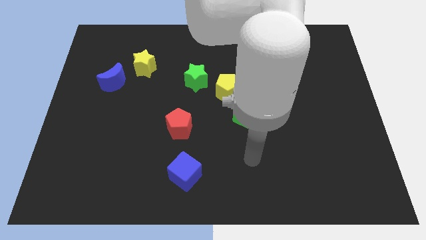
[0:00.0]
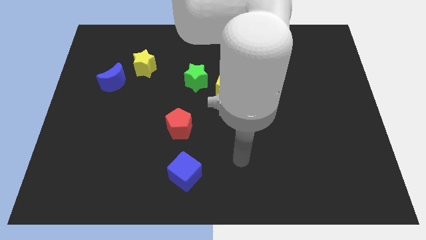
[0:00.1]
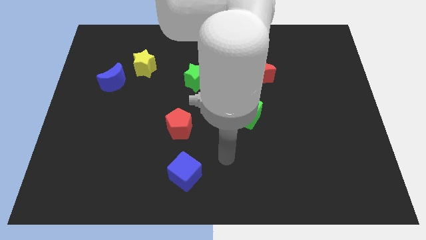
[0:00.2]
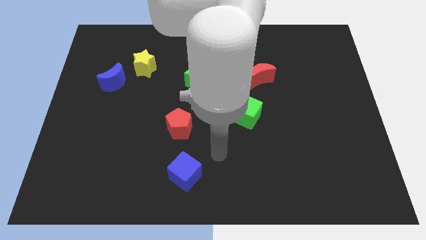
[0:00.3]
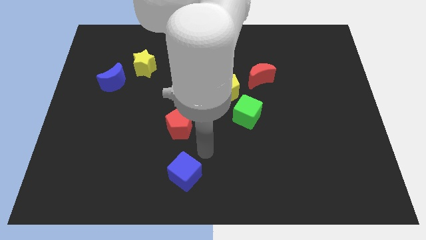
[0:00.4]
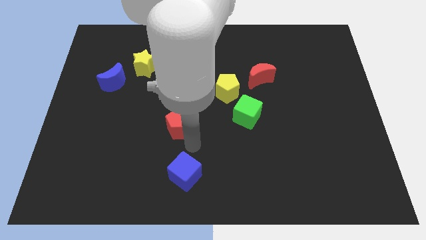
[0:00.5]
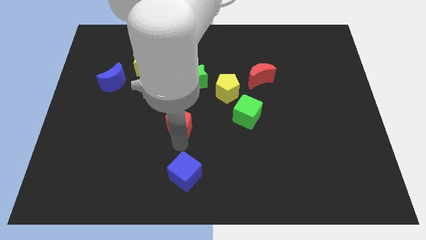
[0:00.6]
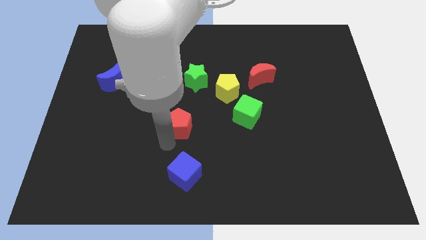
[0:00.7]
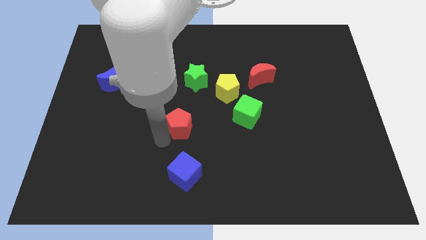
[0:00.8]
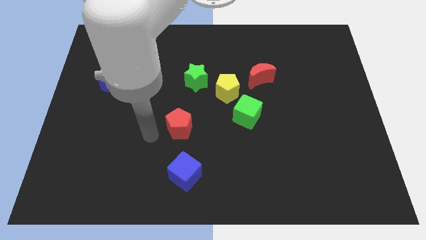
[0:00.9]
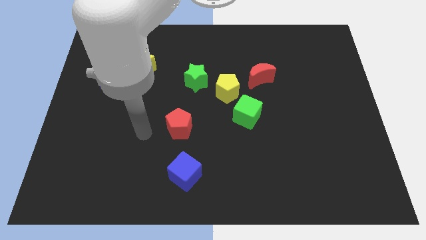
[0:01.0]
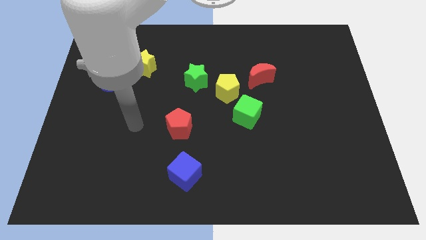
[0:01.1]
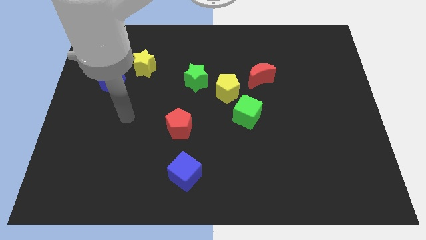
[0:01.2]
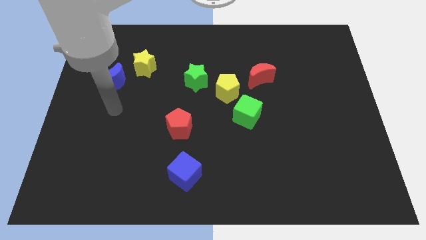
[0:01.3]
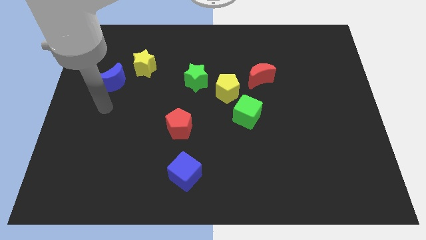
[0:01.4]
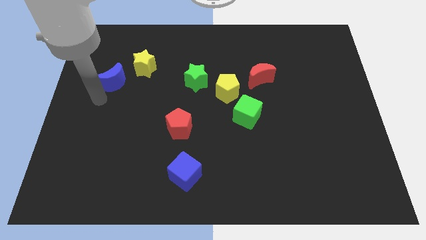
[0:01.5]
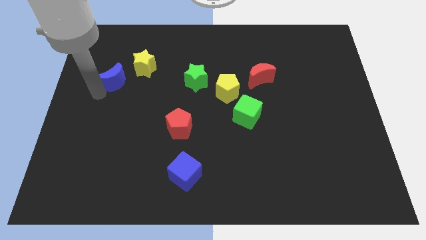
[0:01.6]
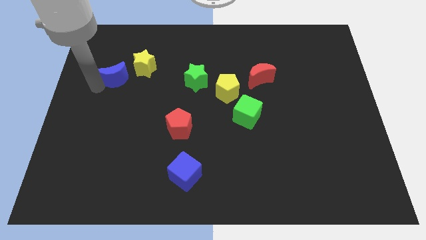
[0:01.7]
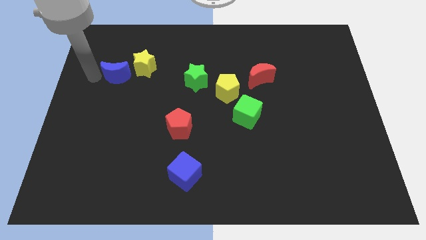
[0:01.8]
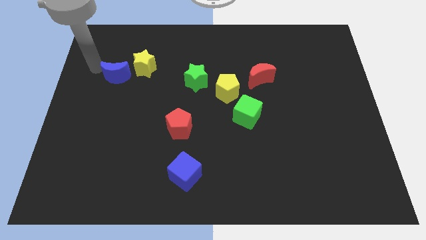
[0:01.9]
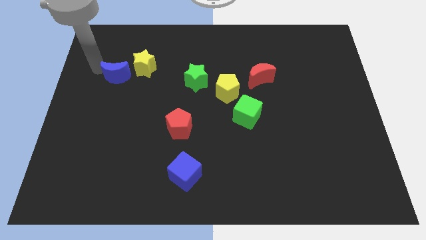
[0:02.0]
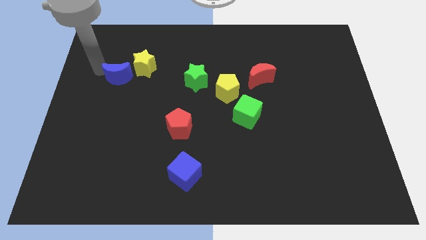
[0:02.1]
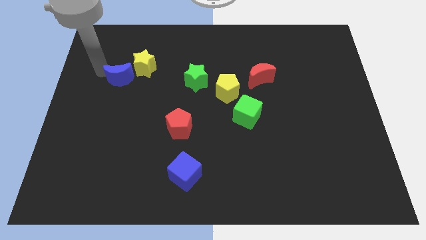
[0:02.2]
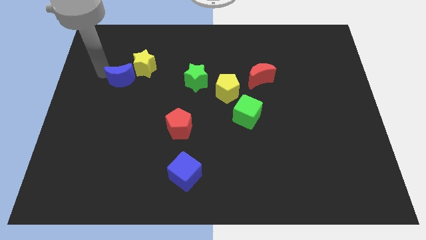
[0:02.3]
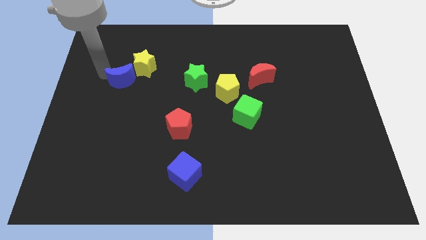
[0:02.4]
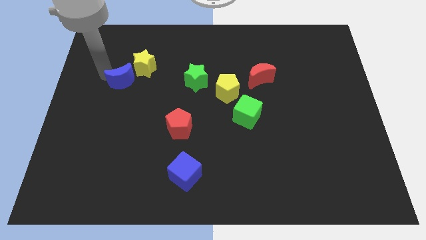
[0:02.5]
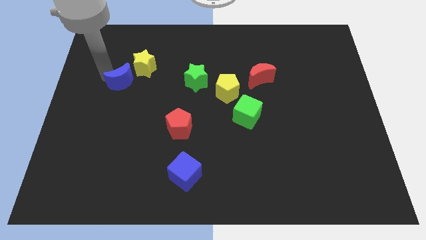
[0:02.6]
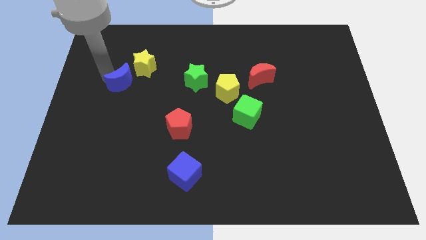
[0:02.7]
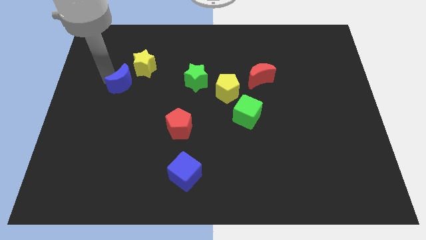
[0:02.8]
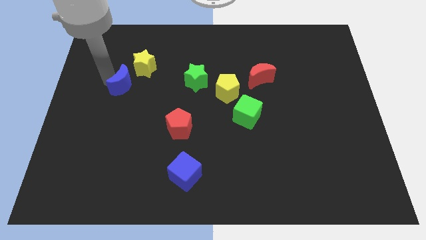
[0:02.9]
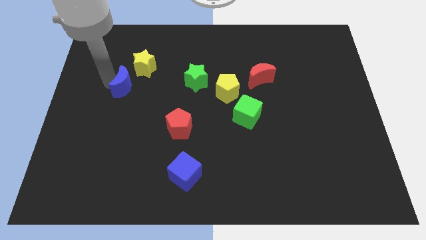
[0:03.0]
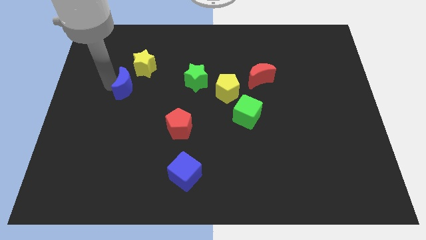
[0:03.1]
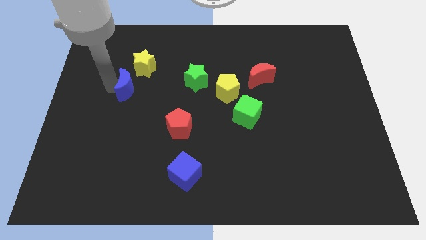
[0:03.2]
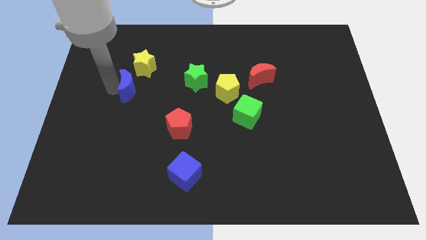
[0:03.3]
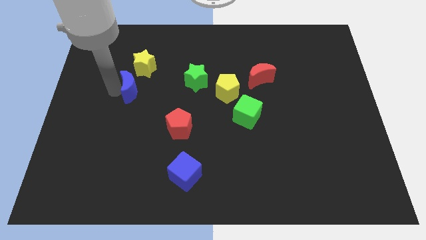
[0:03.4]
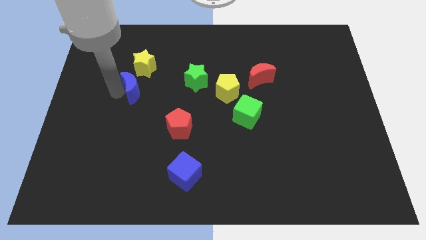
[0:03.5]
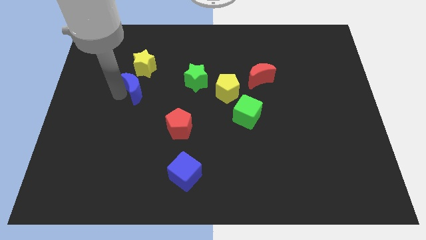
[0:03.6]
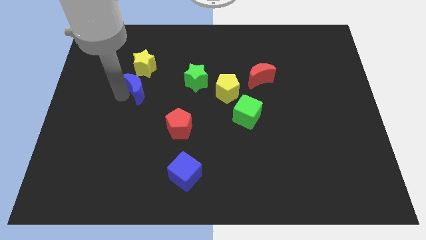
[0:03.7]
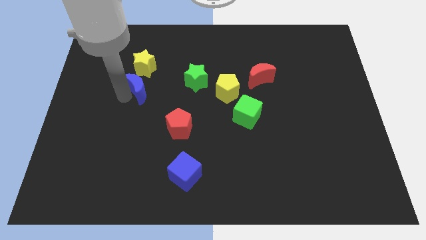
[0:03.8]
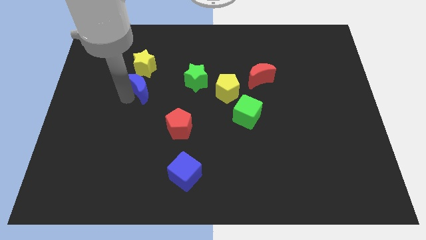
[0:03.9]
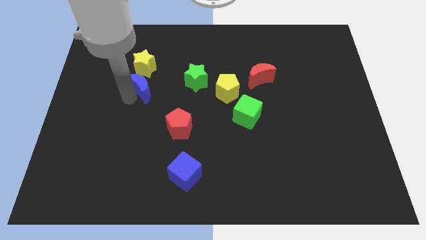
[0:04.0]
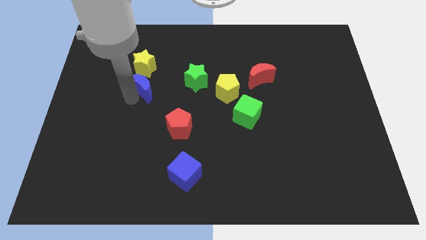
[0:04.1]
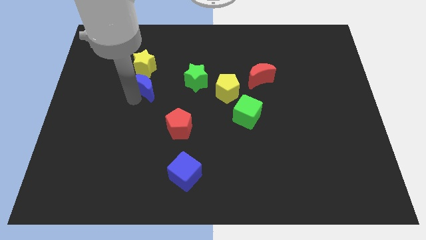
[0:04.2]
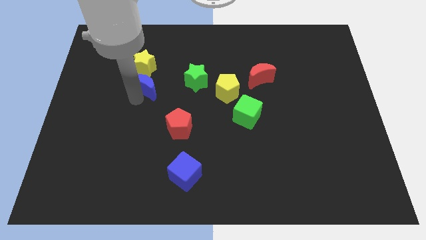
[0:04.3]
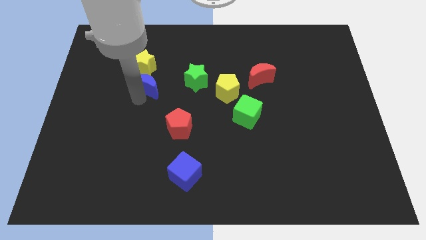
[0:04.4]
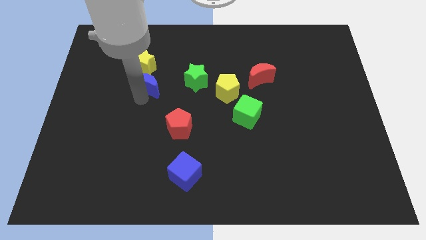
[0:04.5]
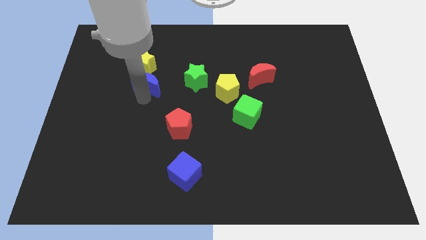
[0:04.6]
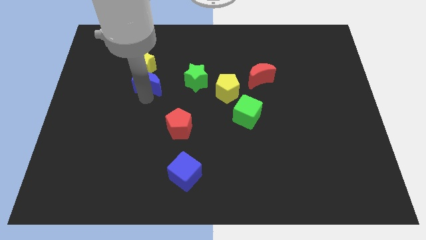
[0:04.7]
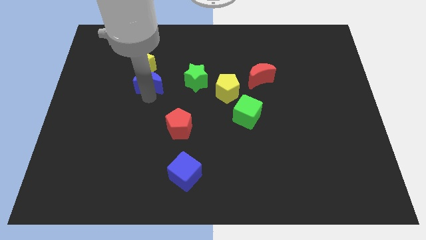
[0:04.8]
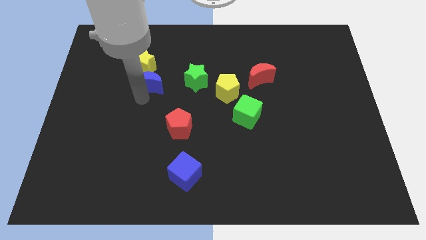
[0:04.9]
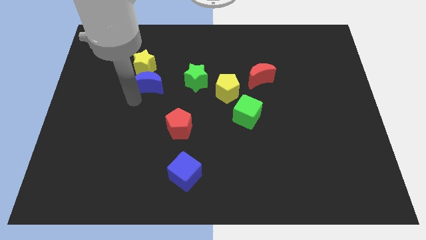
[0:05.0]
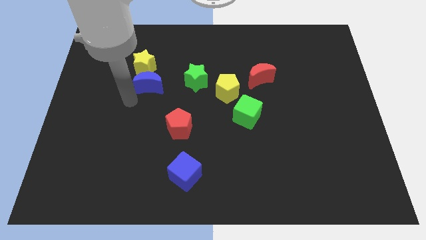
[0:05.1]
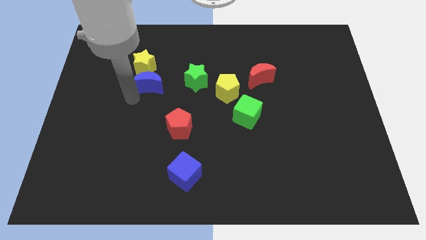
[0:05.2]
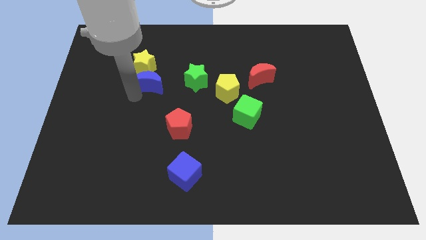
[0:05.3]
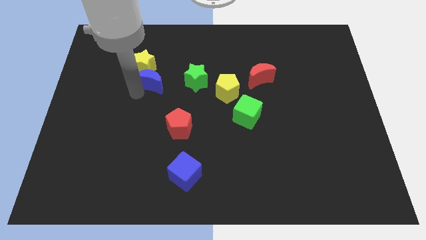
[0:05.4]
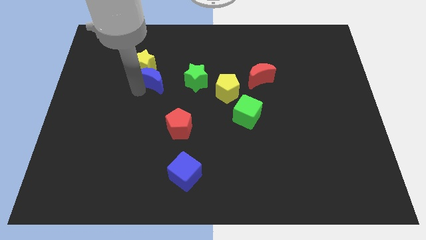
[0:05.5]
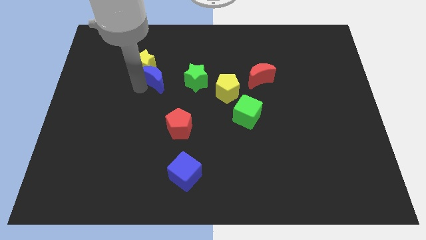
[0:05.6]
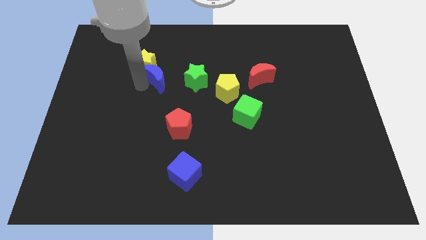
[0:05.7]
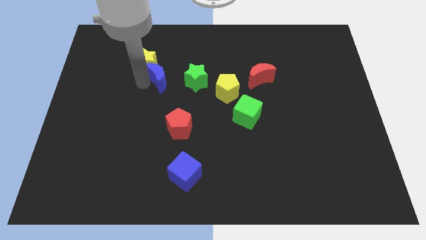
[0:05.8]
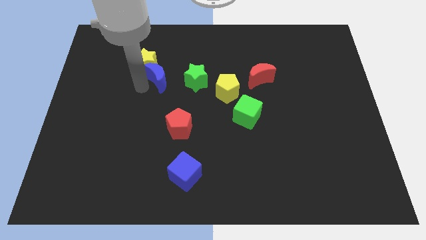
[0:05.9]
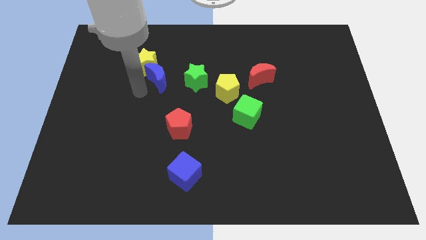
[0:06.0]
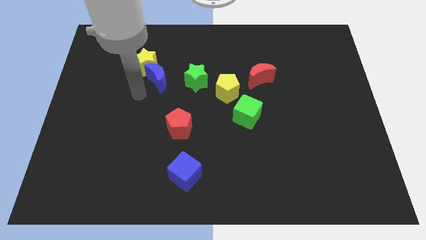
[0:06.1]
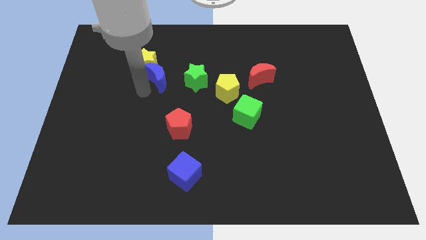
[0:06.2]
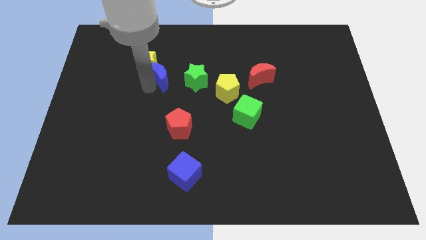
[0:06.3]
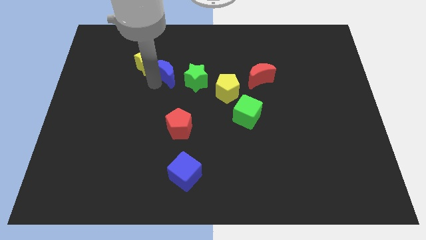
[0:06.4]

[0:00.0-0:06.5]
slide the blue moon to the top left side of the green star
